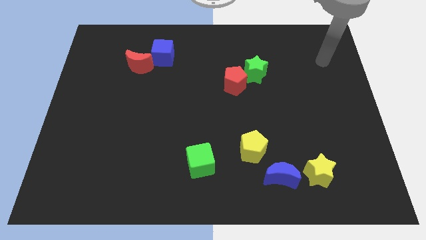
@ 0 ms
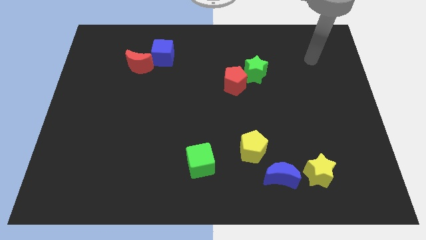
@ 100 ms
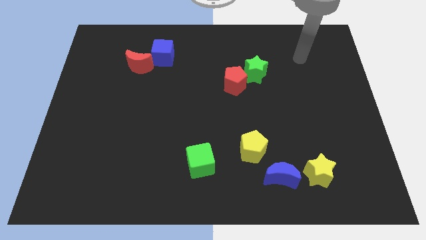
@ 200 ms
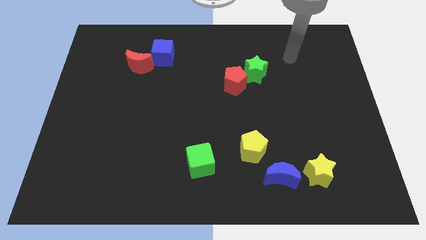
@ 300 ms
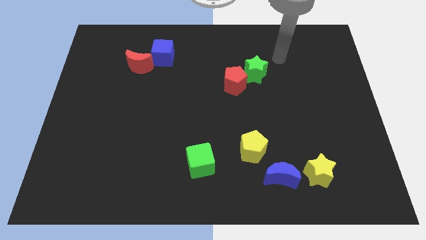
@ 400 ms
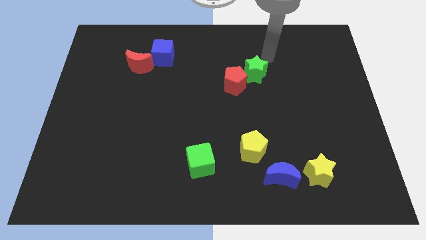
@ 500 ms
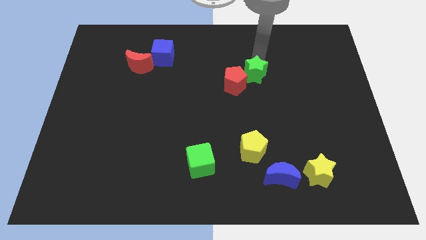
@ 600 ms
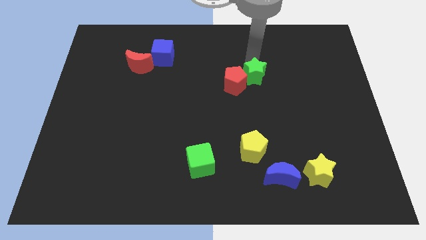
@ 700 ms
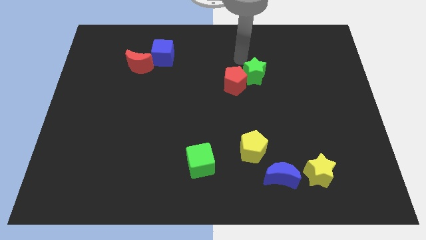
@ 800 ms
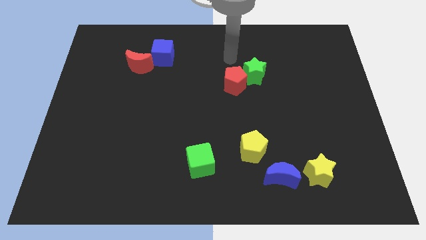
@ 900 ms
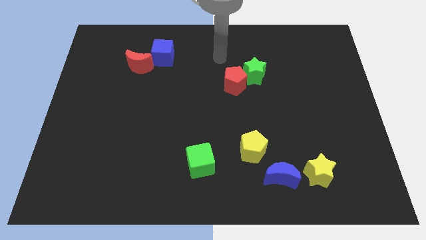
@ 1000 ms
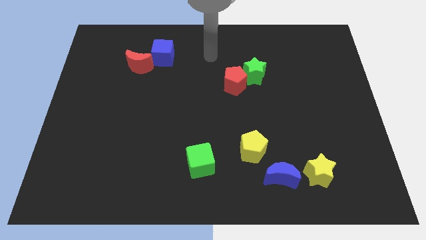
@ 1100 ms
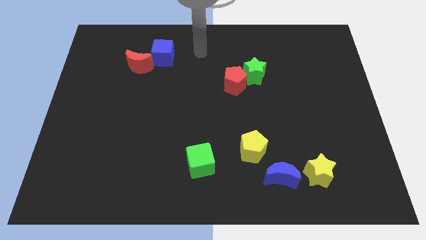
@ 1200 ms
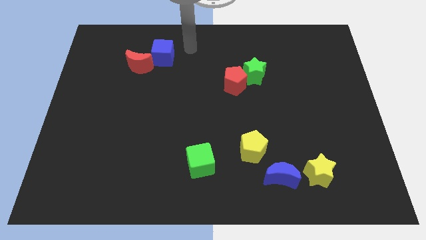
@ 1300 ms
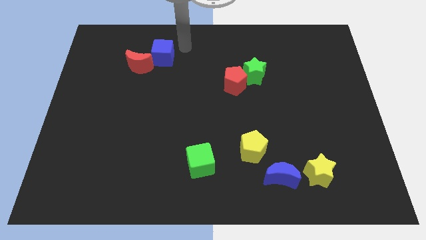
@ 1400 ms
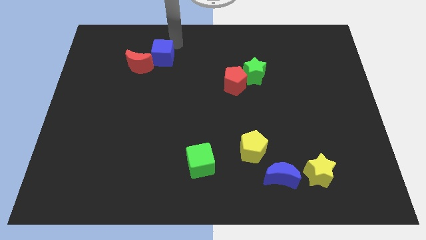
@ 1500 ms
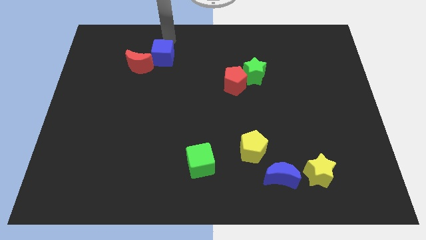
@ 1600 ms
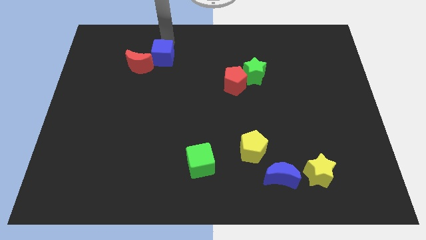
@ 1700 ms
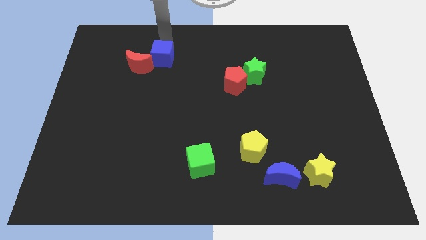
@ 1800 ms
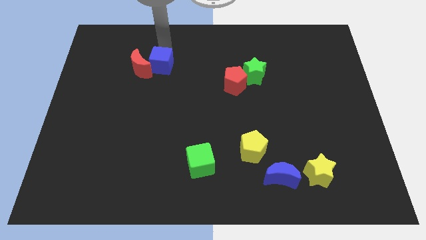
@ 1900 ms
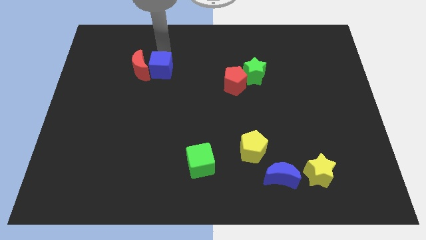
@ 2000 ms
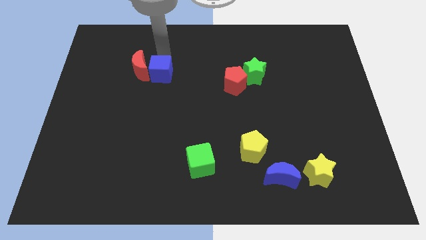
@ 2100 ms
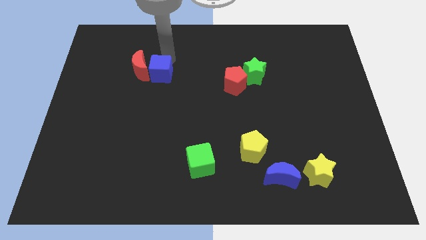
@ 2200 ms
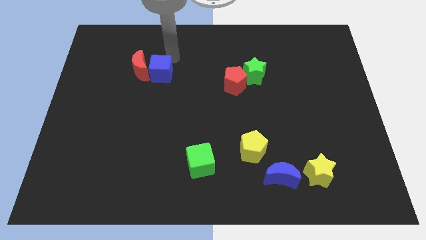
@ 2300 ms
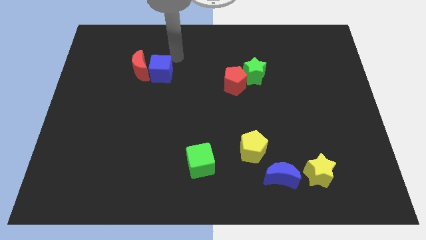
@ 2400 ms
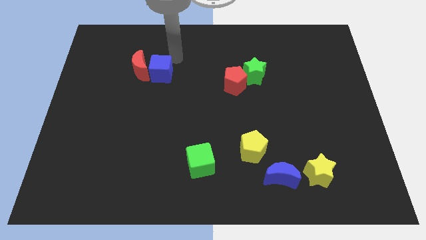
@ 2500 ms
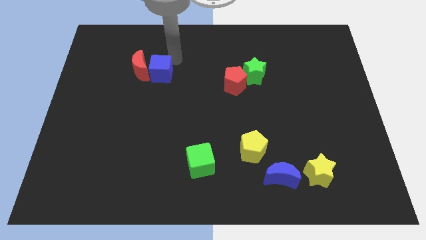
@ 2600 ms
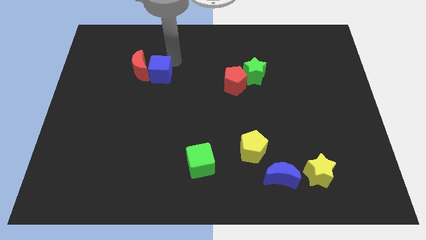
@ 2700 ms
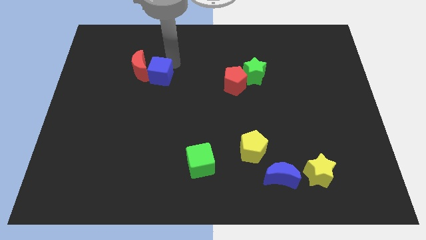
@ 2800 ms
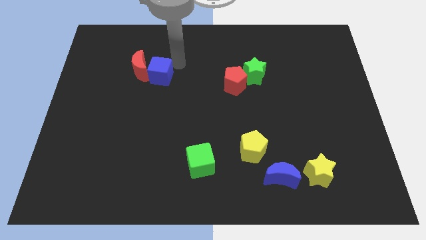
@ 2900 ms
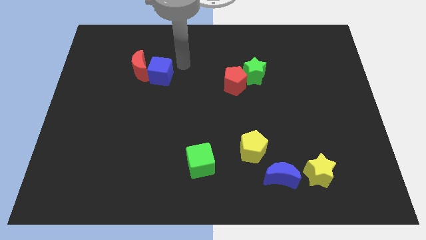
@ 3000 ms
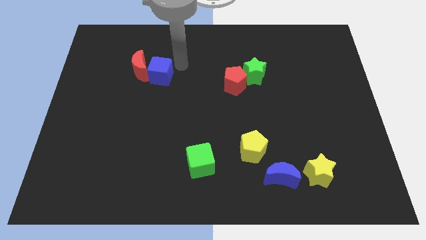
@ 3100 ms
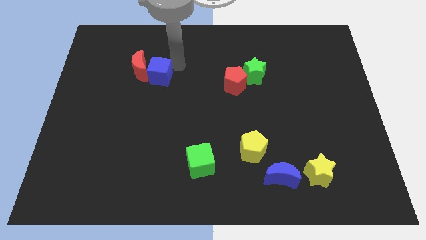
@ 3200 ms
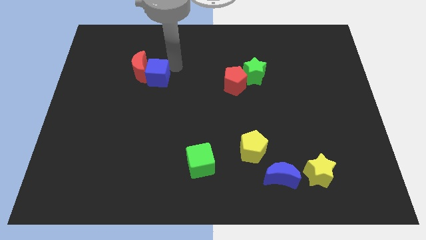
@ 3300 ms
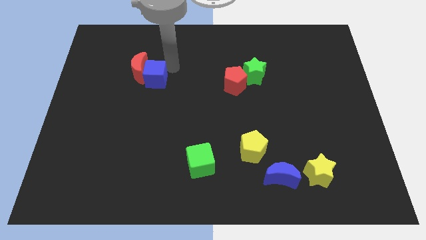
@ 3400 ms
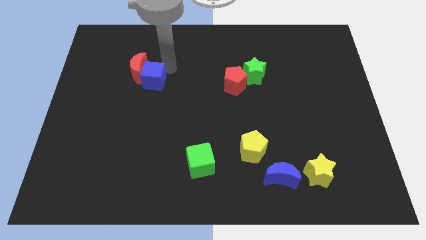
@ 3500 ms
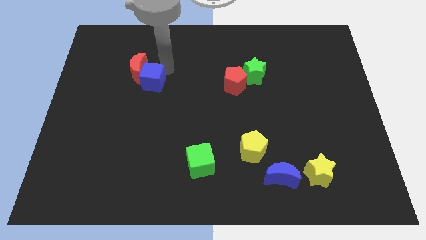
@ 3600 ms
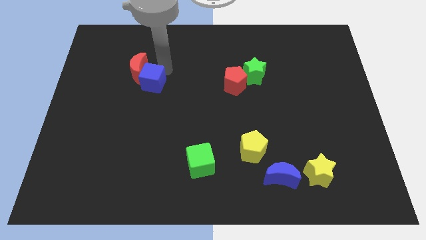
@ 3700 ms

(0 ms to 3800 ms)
slightly slide the blue cube downwards and then to the left

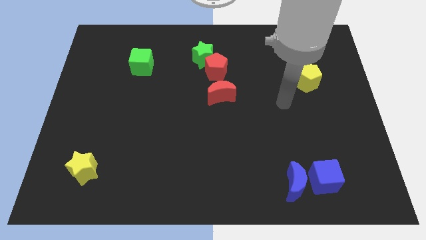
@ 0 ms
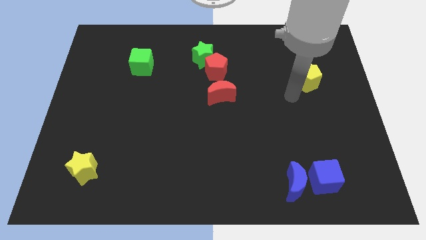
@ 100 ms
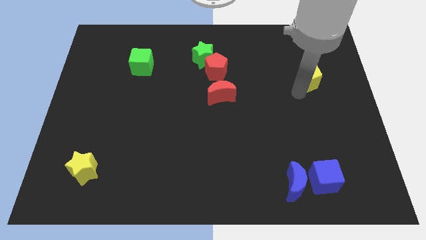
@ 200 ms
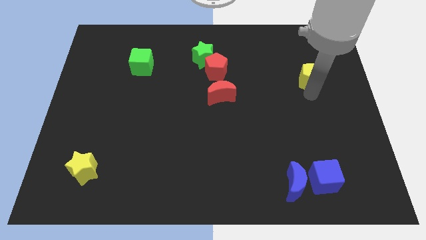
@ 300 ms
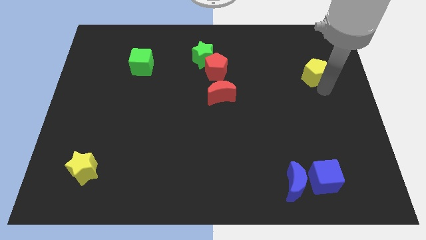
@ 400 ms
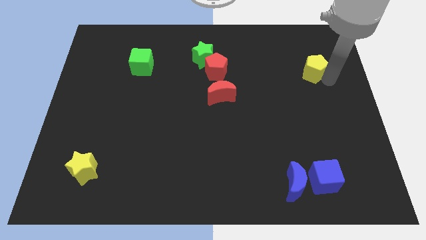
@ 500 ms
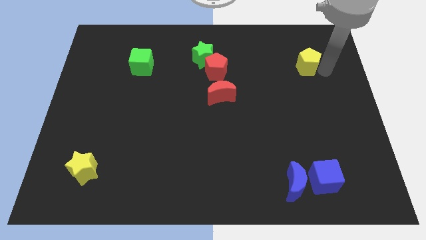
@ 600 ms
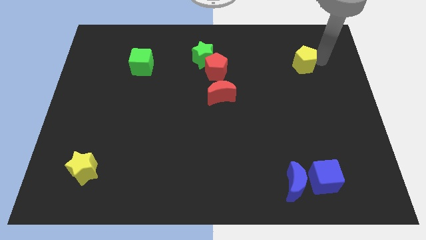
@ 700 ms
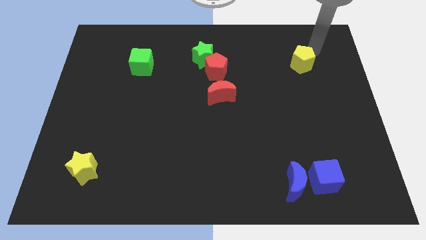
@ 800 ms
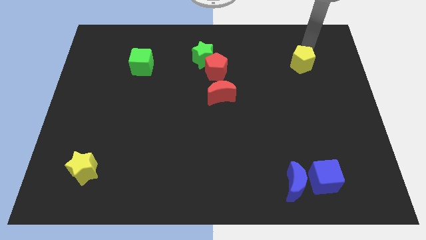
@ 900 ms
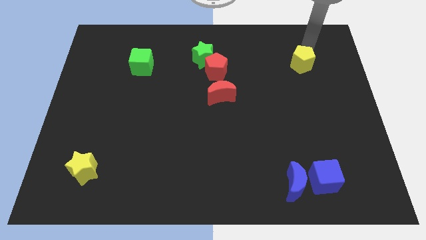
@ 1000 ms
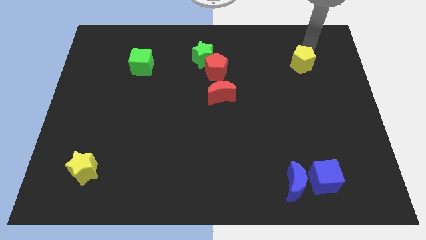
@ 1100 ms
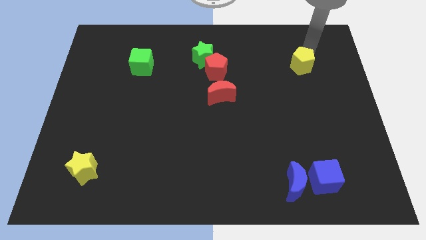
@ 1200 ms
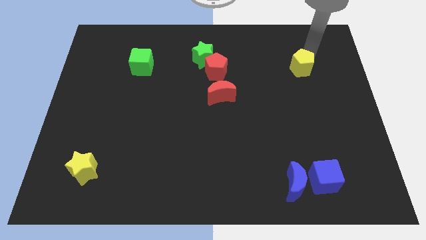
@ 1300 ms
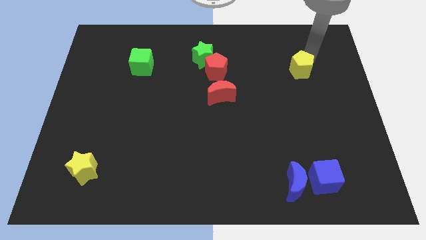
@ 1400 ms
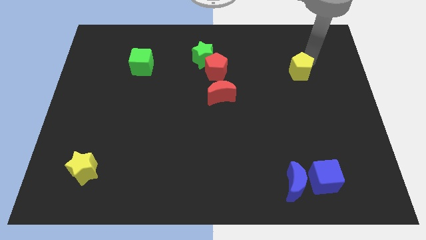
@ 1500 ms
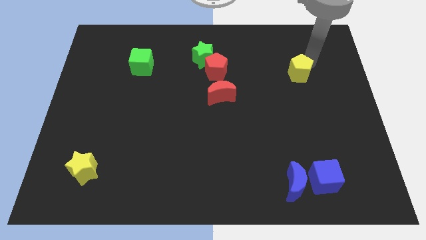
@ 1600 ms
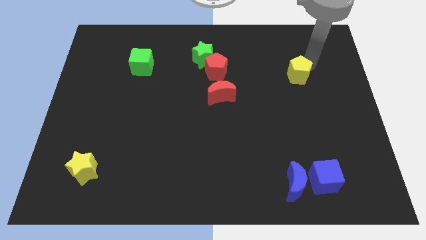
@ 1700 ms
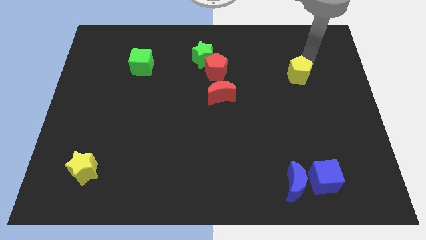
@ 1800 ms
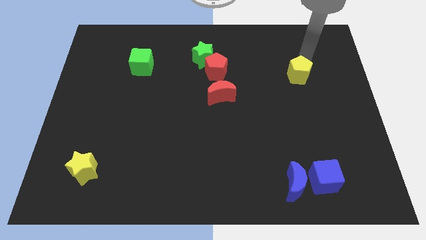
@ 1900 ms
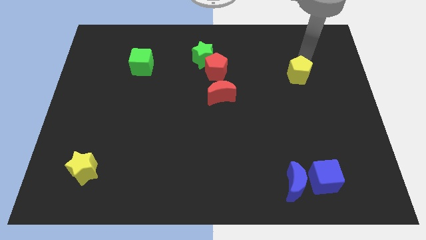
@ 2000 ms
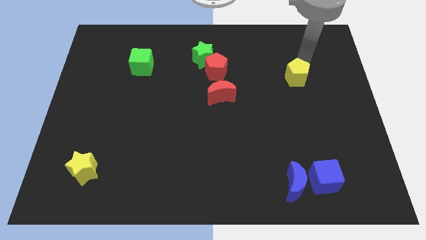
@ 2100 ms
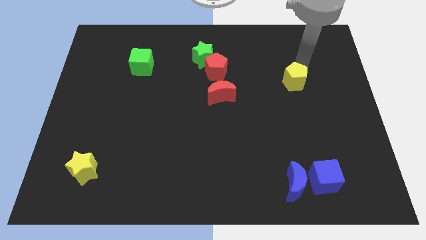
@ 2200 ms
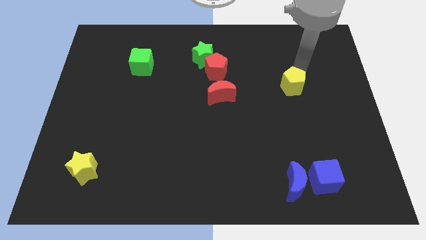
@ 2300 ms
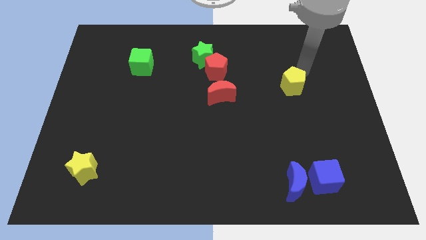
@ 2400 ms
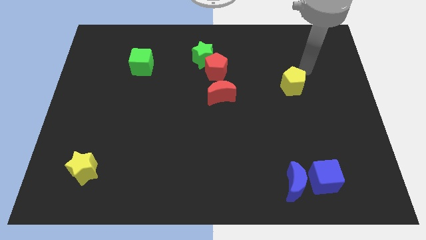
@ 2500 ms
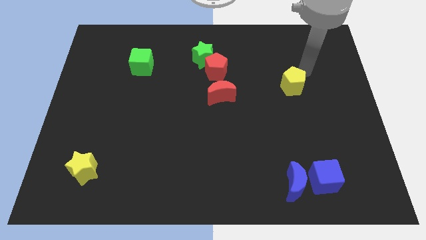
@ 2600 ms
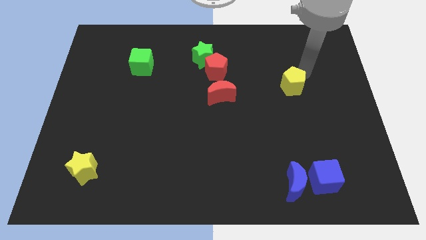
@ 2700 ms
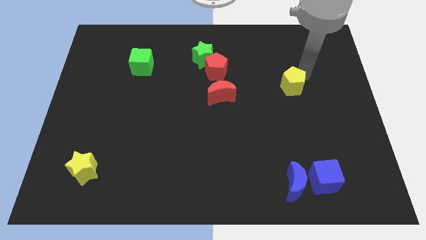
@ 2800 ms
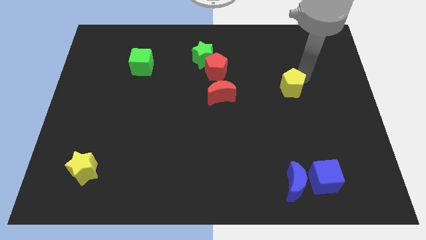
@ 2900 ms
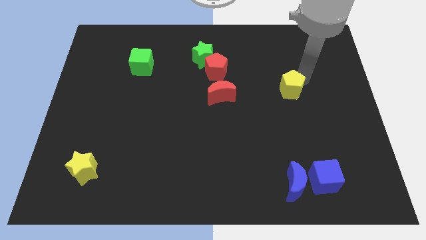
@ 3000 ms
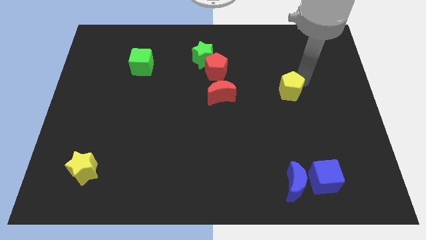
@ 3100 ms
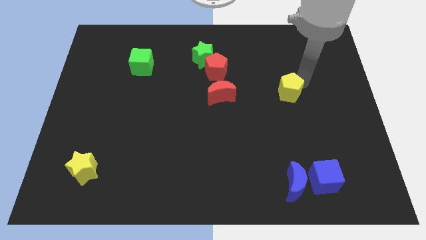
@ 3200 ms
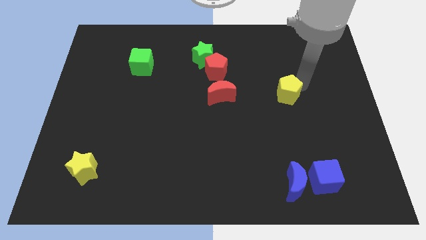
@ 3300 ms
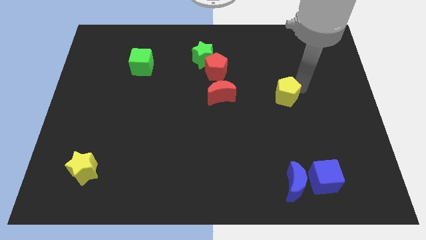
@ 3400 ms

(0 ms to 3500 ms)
slightly push the yellow pentagon down and then left

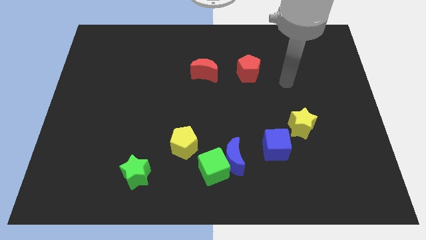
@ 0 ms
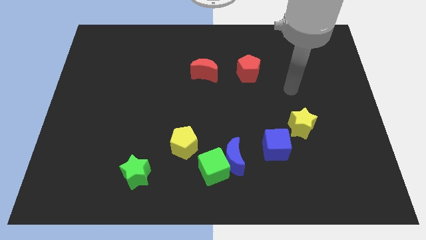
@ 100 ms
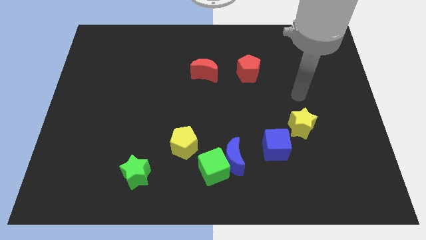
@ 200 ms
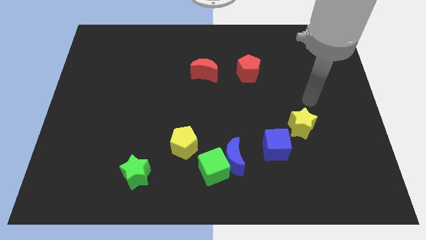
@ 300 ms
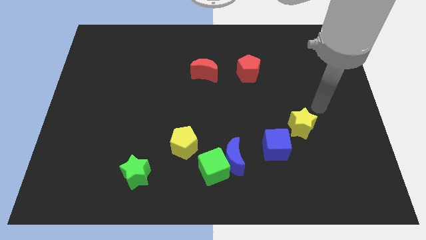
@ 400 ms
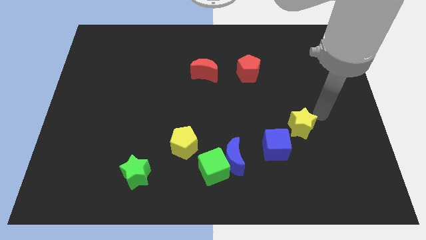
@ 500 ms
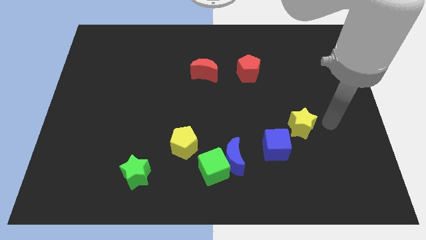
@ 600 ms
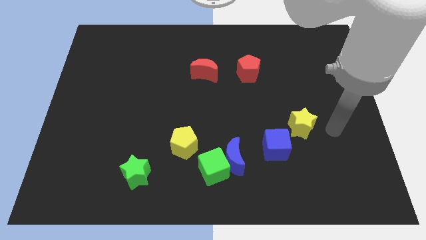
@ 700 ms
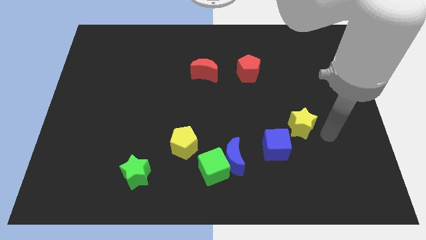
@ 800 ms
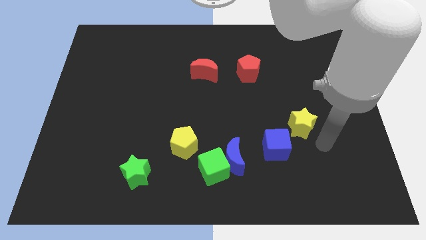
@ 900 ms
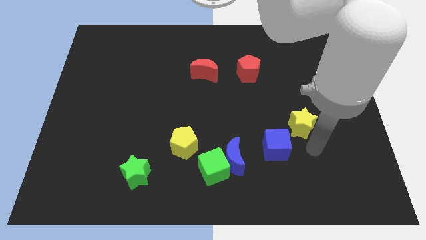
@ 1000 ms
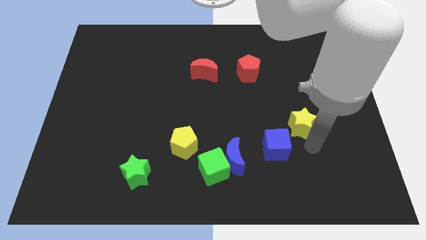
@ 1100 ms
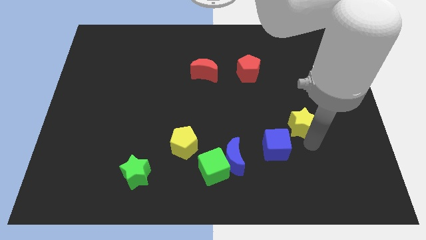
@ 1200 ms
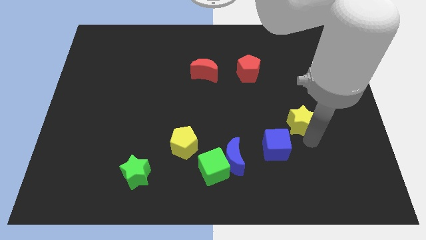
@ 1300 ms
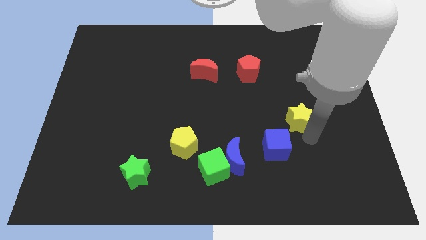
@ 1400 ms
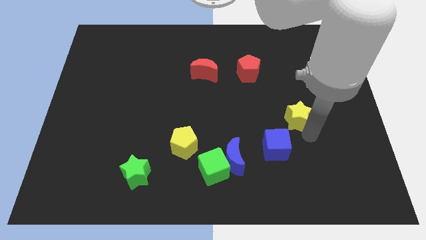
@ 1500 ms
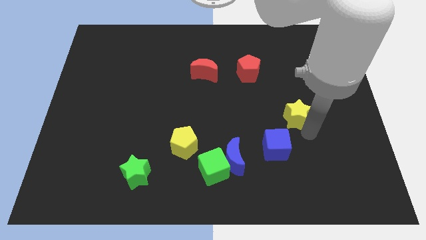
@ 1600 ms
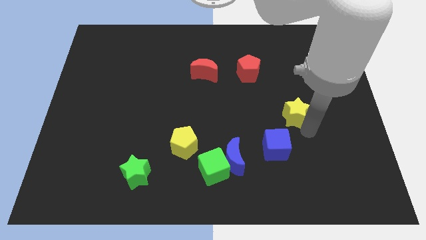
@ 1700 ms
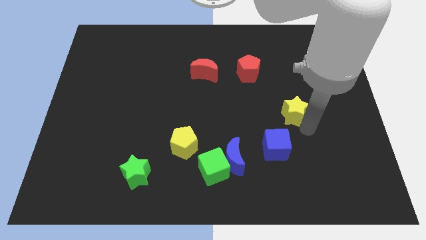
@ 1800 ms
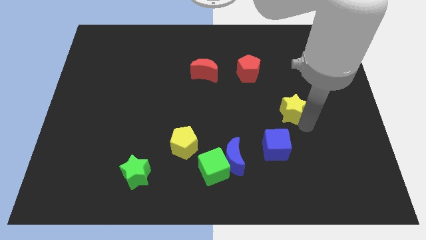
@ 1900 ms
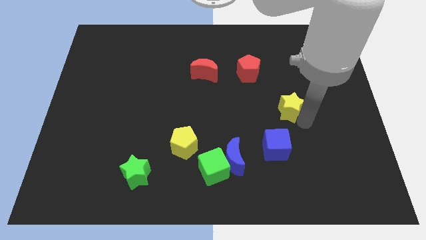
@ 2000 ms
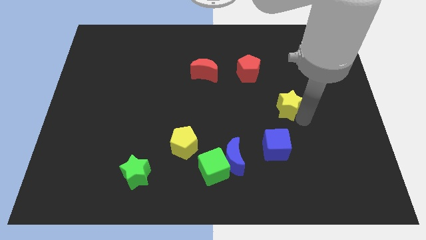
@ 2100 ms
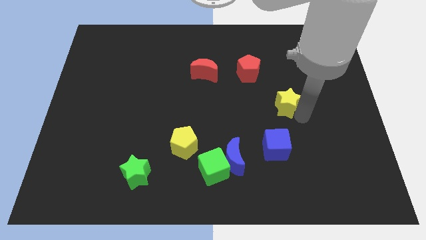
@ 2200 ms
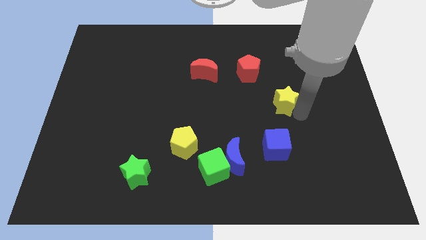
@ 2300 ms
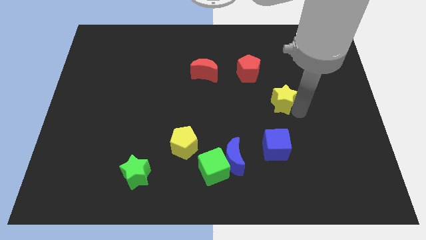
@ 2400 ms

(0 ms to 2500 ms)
move the yellow star a little upwards
